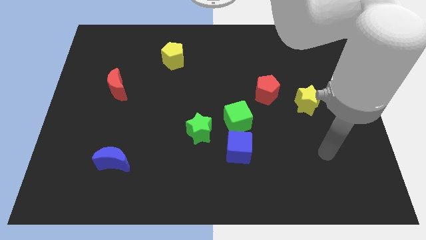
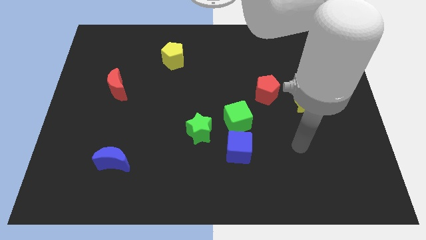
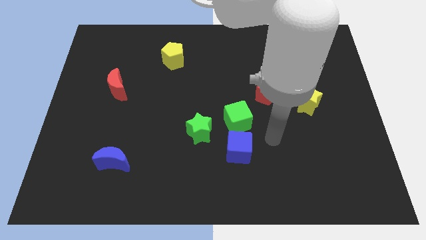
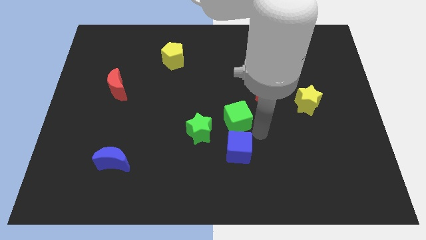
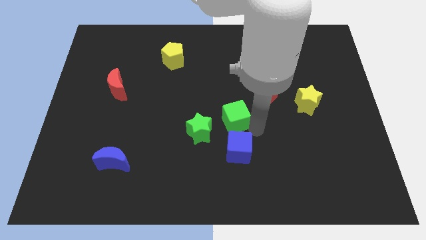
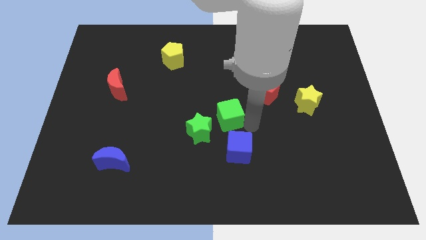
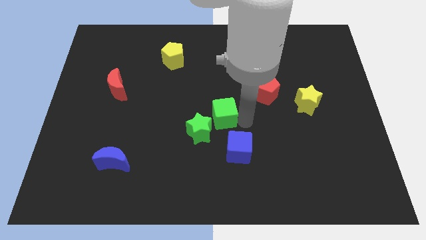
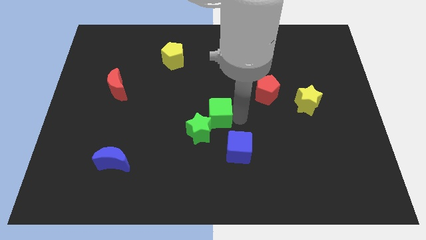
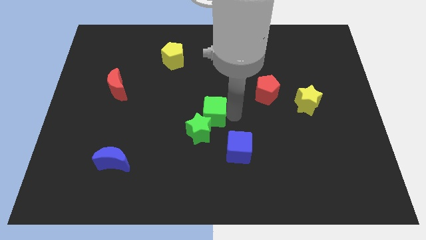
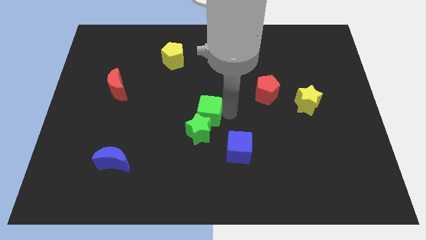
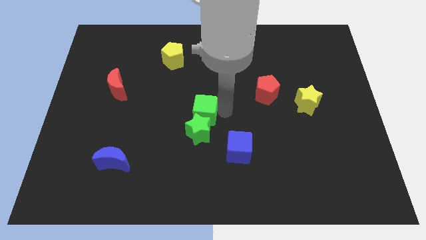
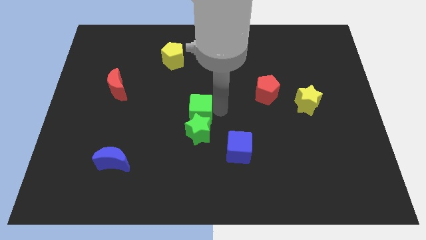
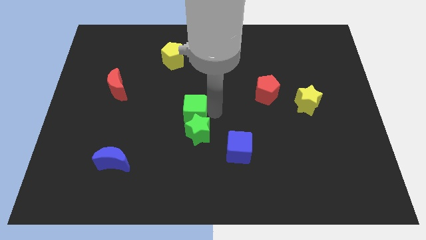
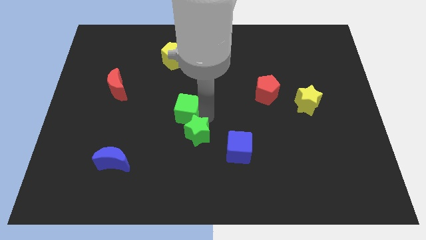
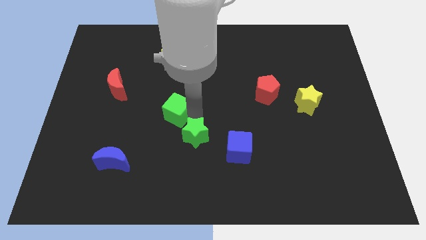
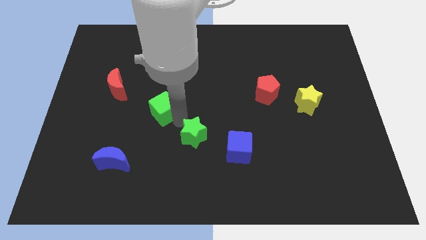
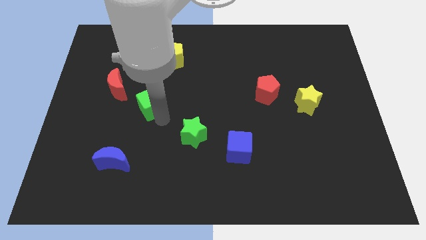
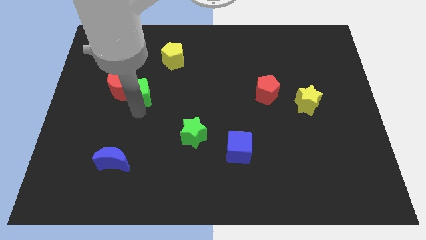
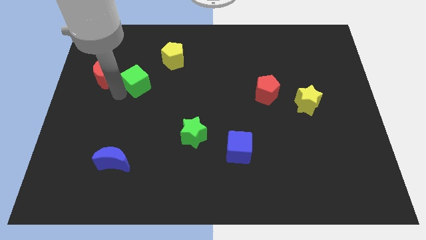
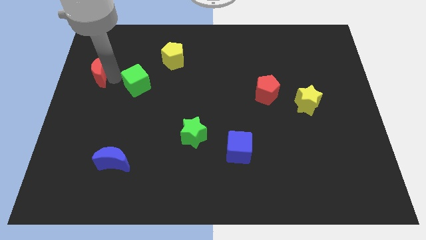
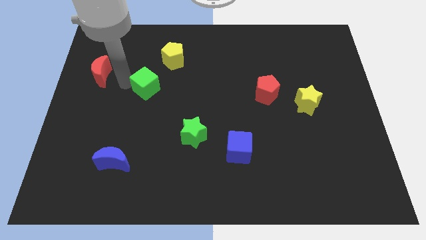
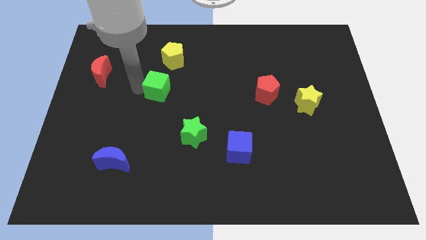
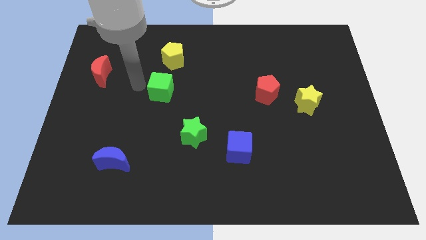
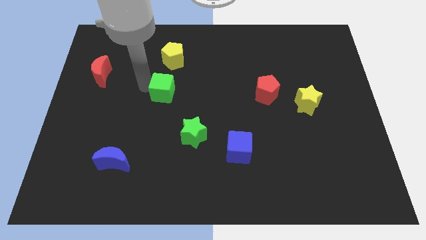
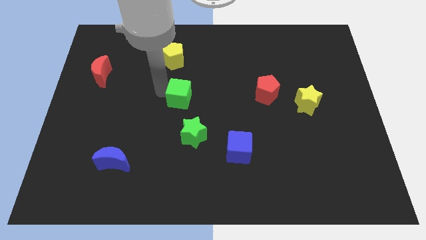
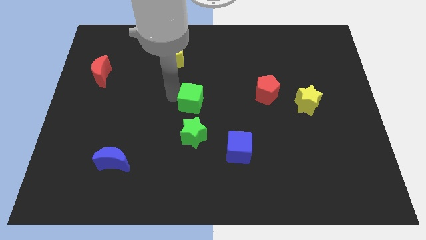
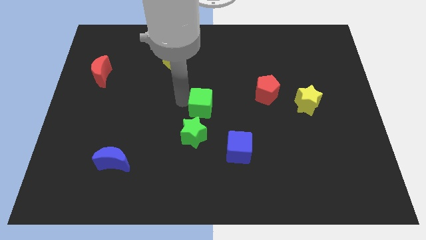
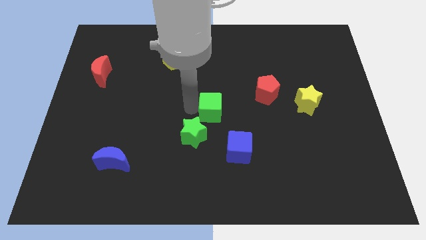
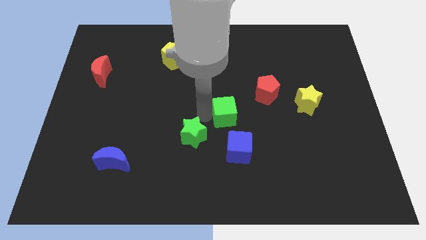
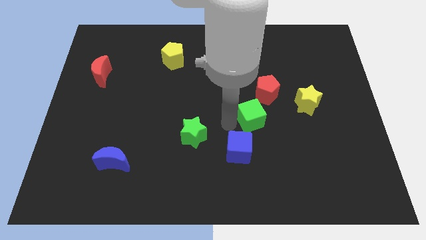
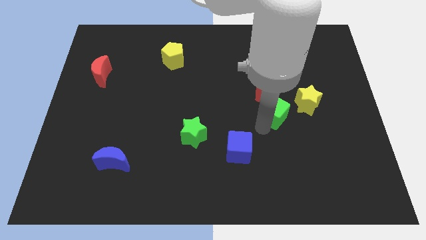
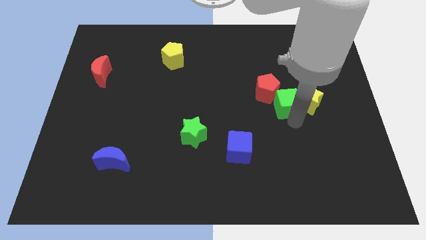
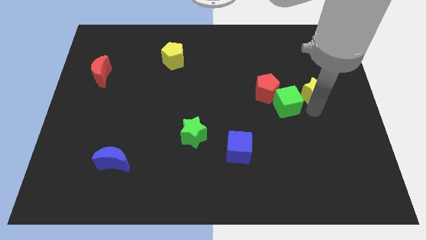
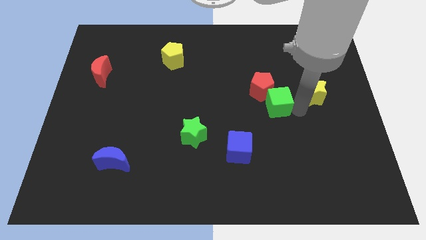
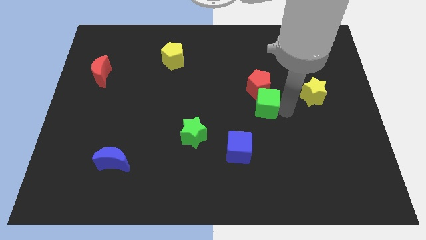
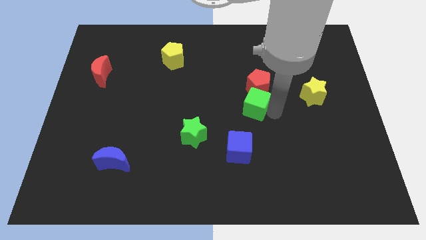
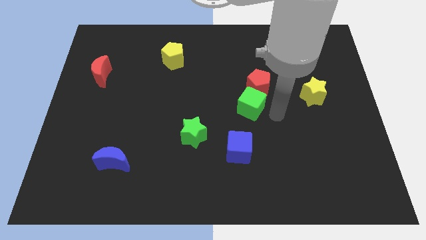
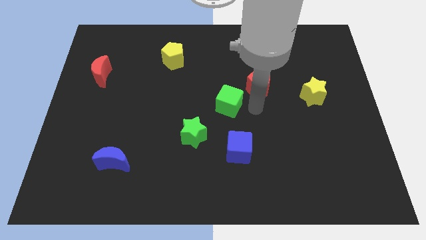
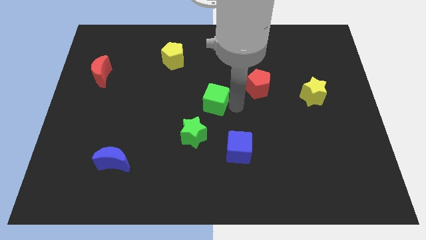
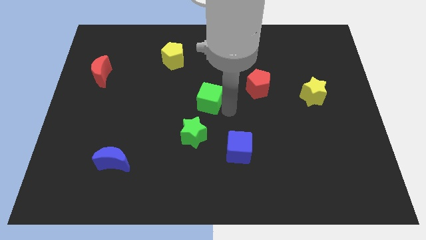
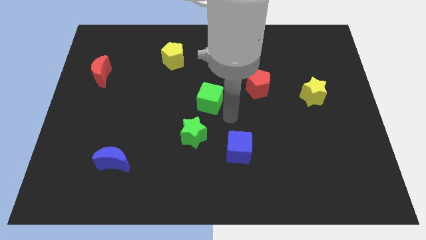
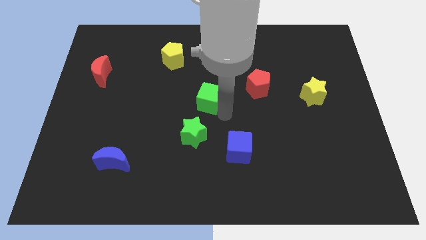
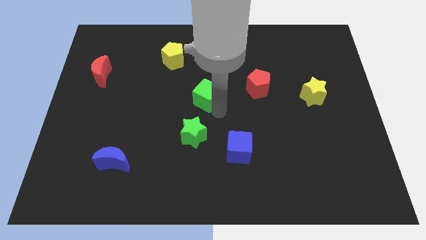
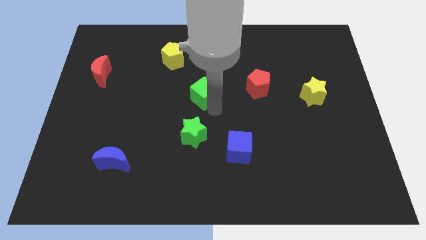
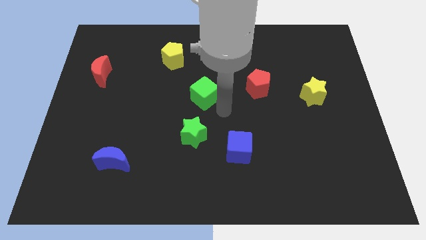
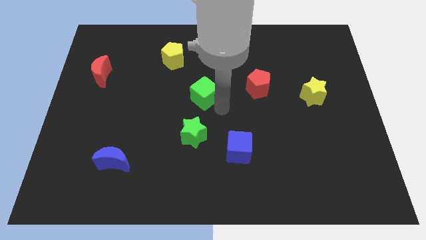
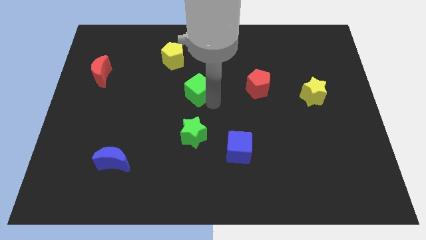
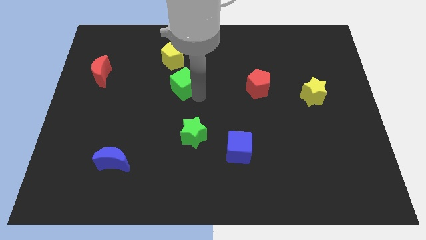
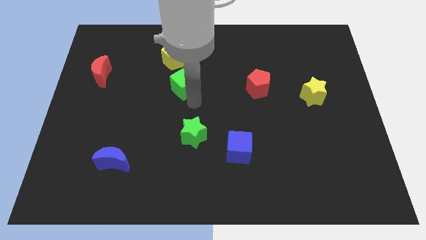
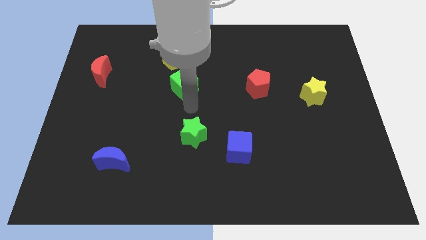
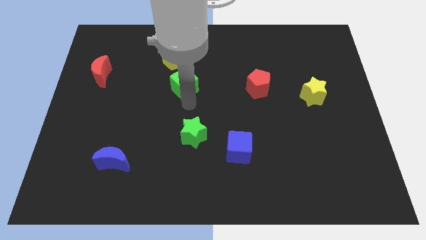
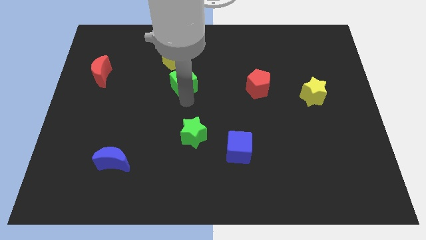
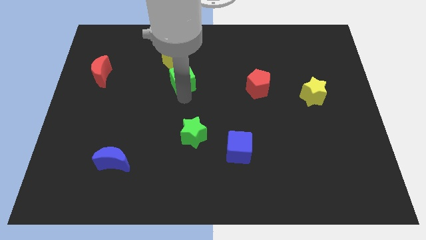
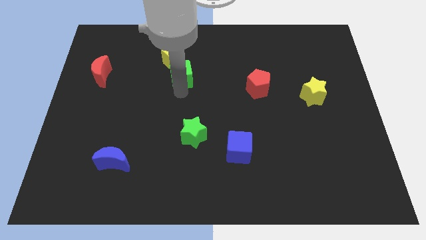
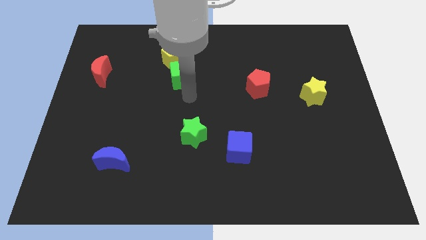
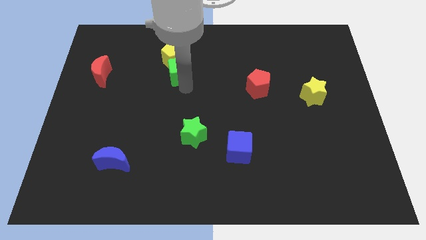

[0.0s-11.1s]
push the green cube towards the yellow pentagon

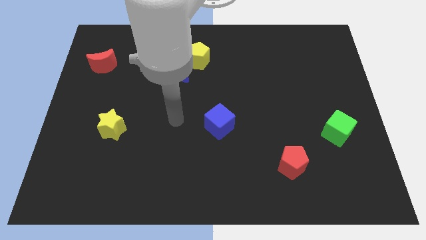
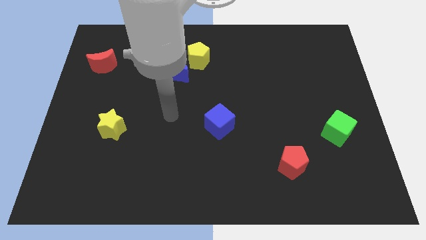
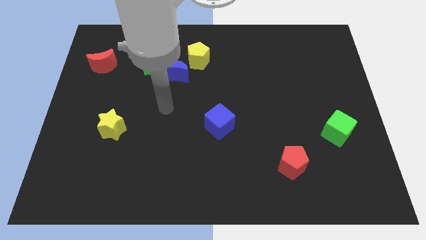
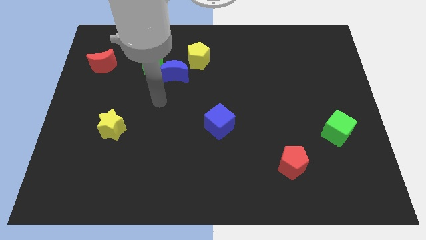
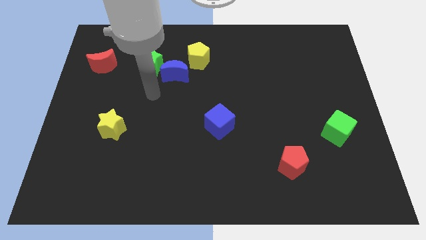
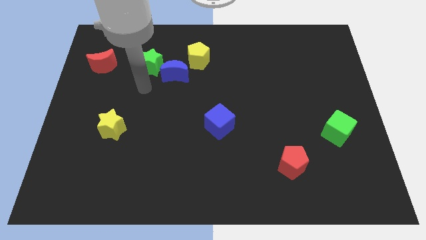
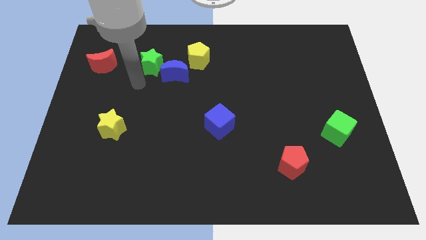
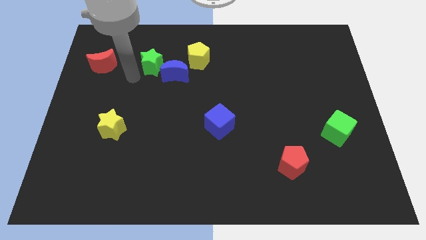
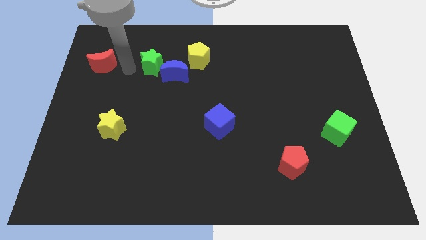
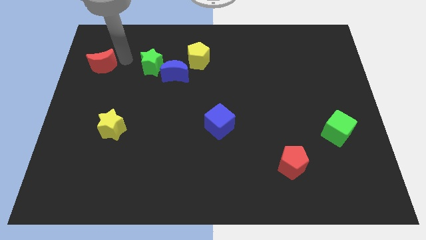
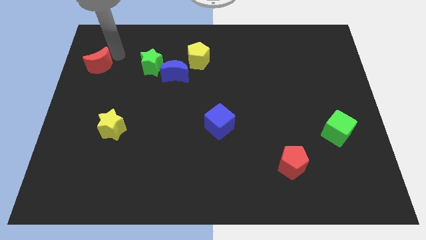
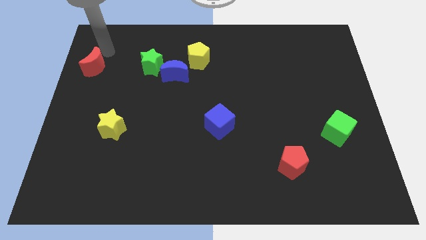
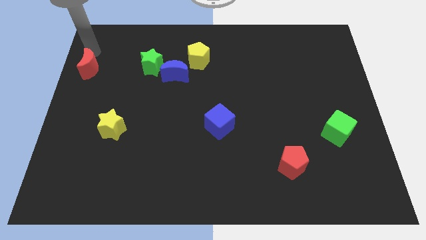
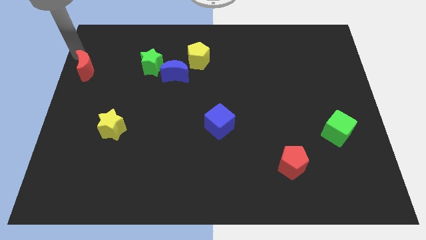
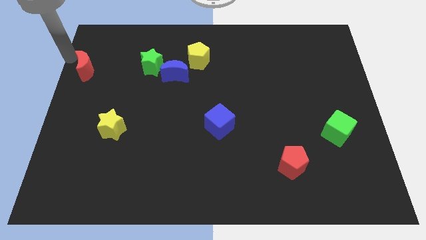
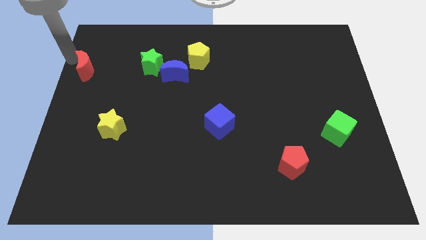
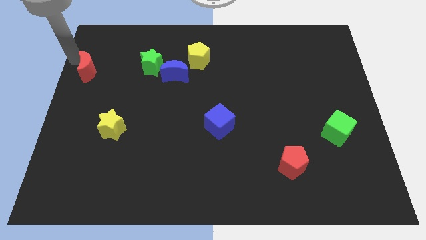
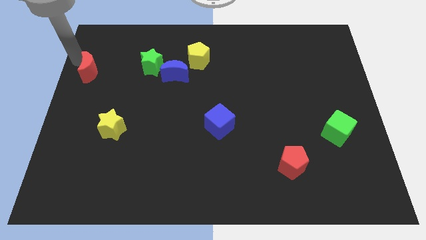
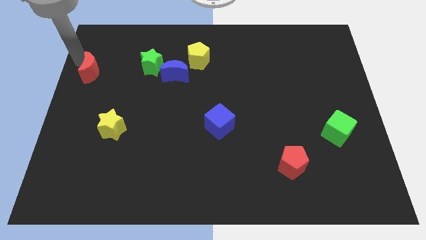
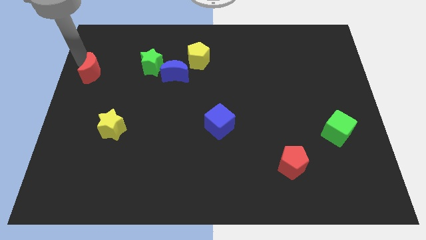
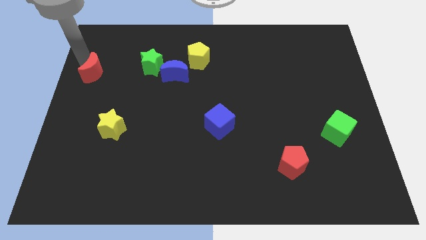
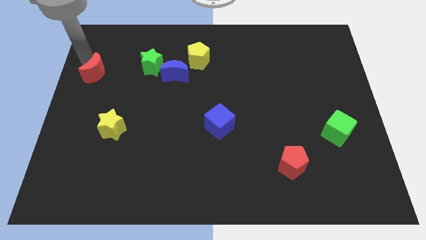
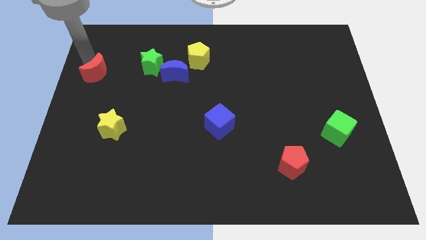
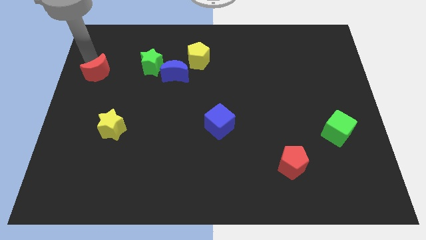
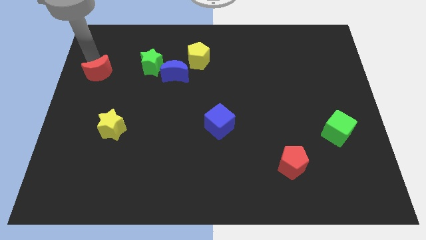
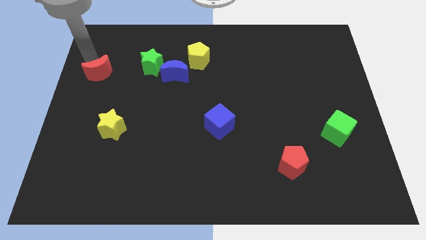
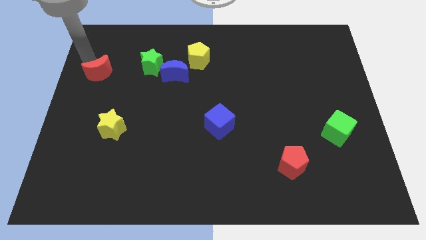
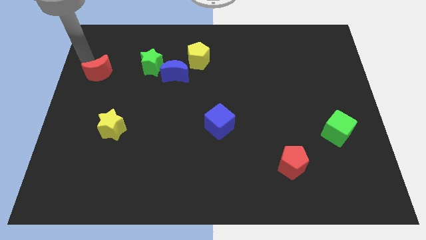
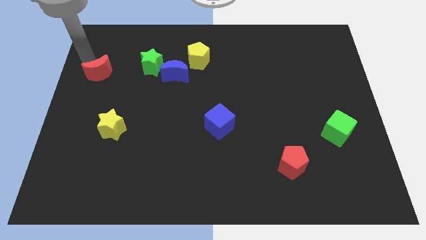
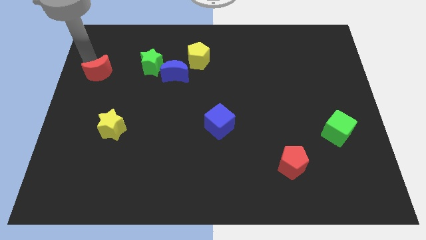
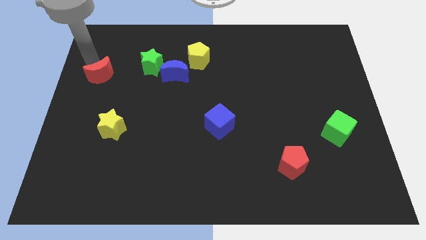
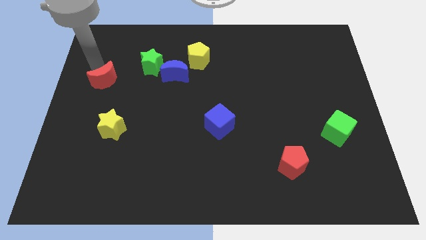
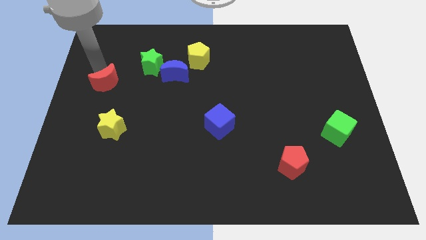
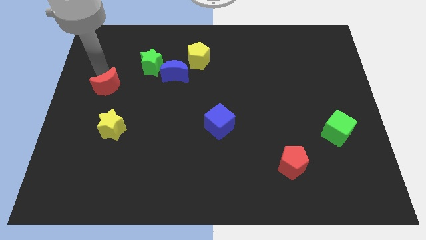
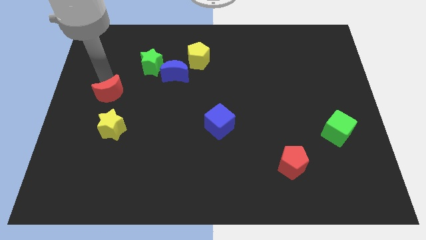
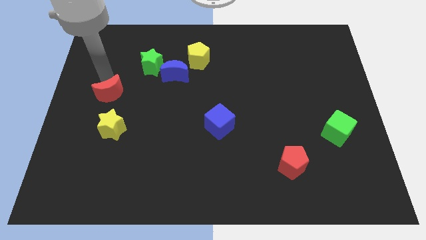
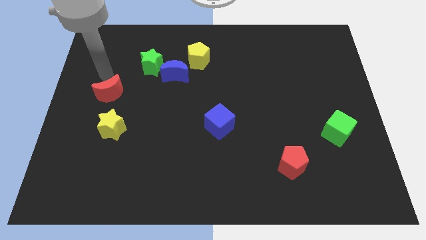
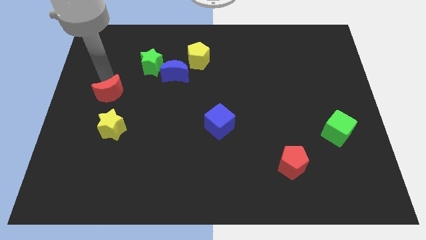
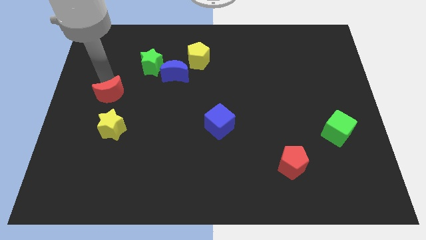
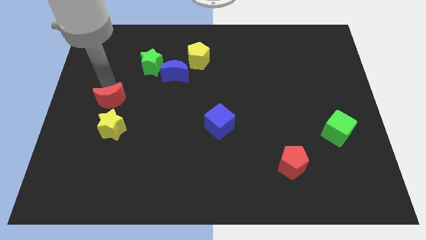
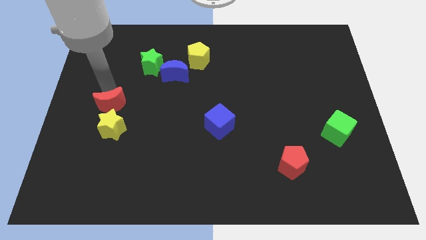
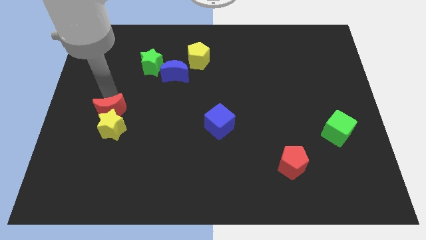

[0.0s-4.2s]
push the red moon close to the yellow star
